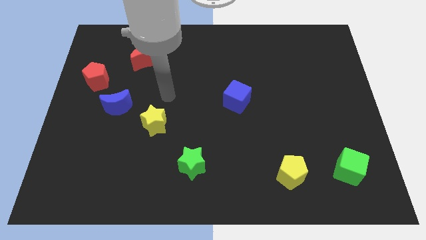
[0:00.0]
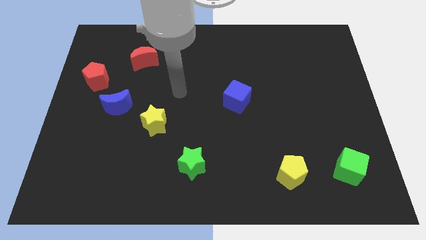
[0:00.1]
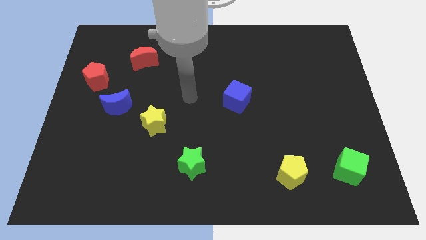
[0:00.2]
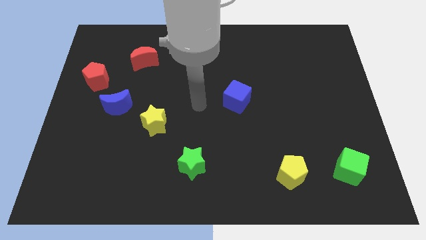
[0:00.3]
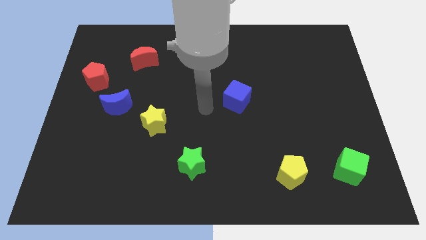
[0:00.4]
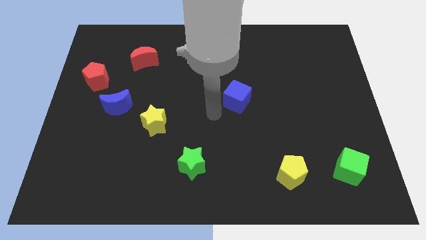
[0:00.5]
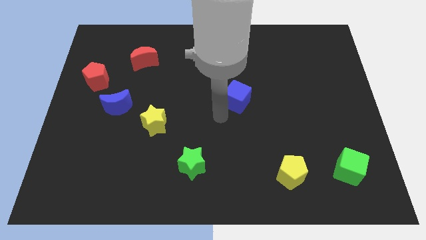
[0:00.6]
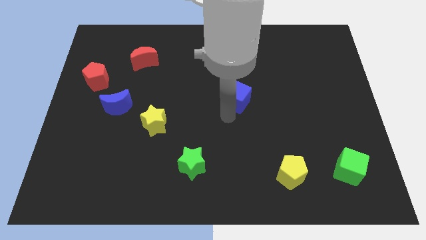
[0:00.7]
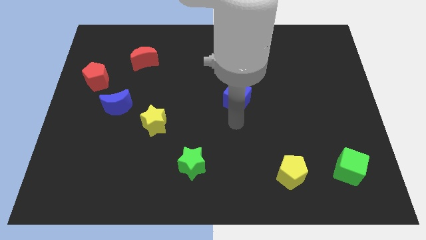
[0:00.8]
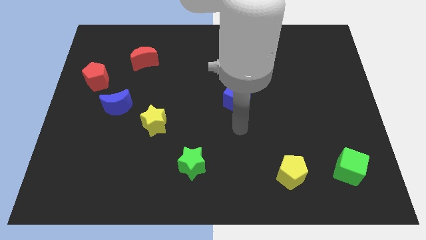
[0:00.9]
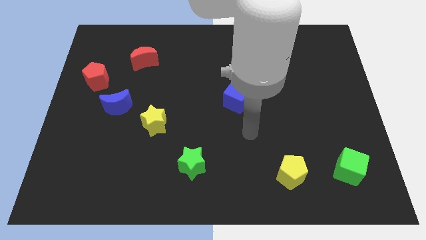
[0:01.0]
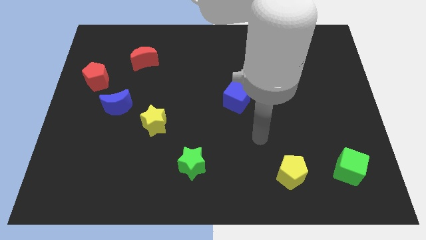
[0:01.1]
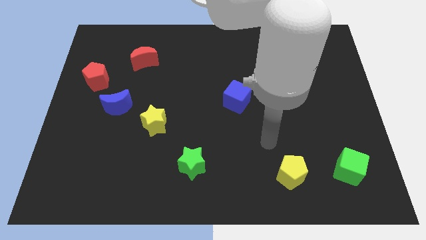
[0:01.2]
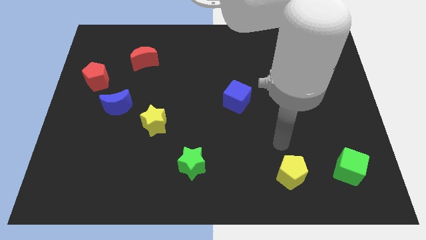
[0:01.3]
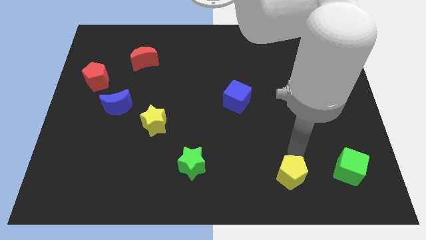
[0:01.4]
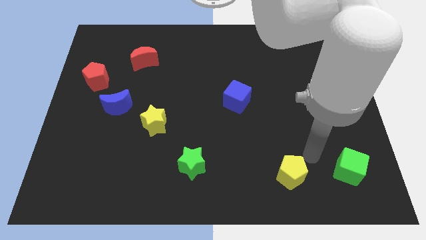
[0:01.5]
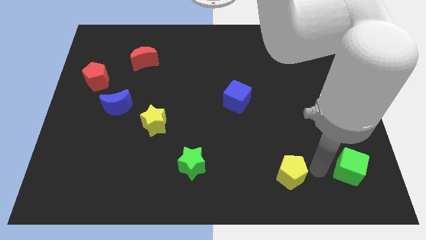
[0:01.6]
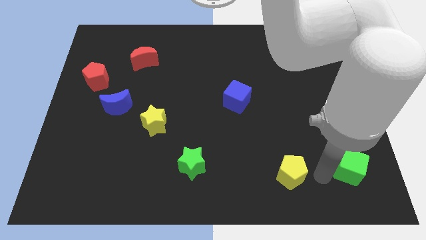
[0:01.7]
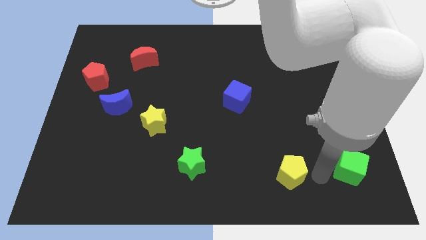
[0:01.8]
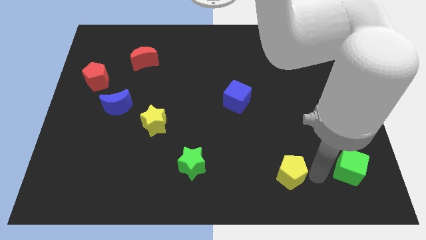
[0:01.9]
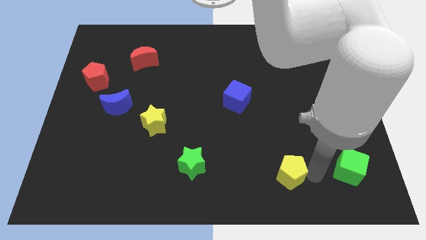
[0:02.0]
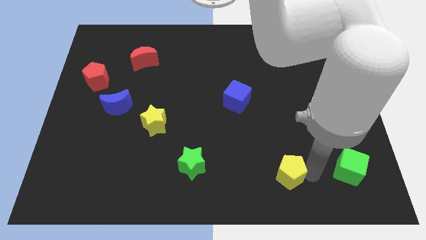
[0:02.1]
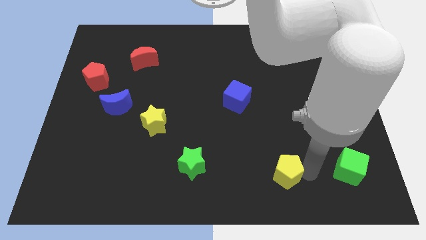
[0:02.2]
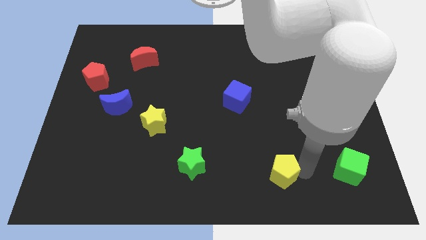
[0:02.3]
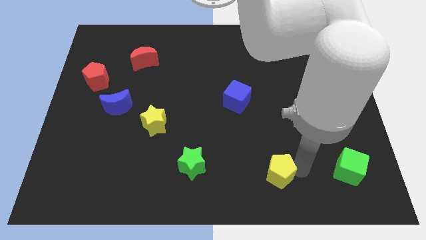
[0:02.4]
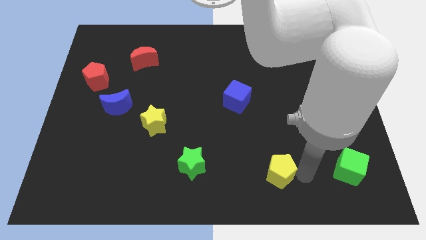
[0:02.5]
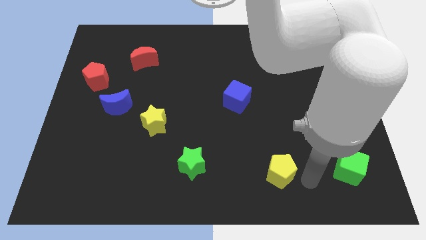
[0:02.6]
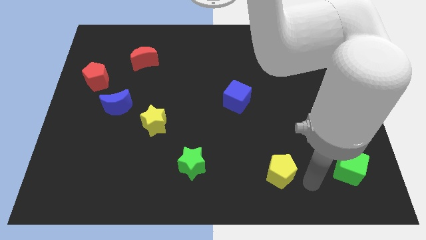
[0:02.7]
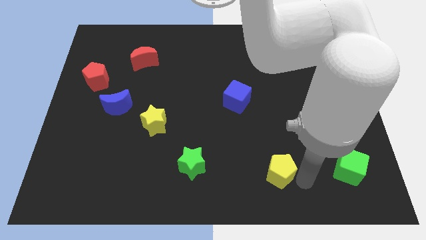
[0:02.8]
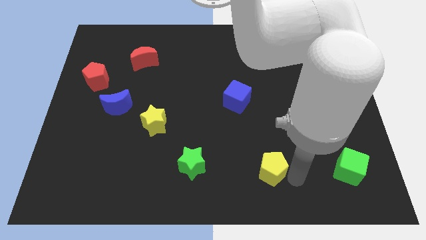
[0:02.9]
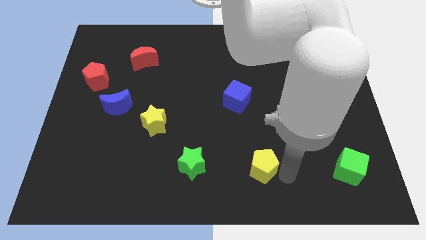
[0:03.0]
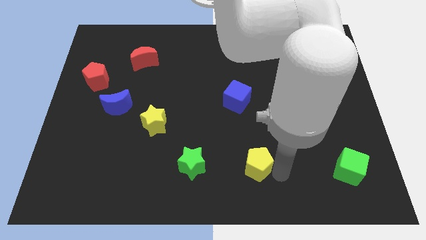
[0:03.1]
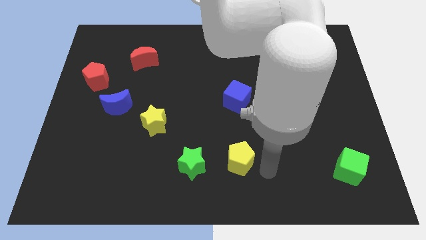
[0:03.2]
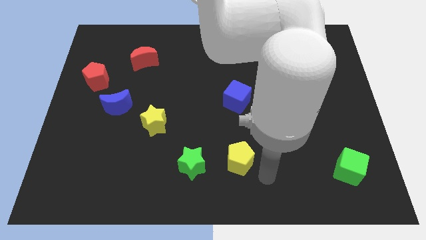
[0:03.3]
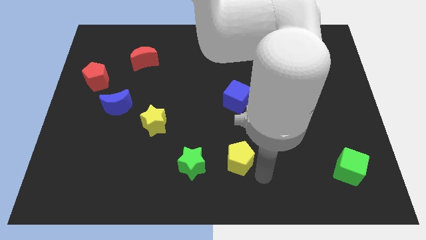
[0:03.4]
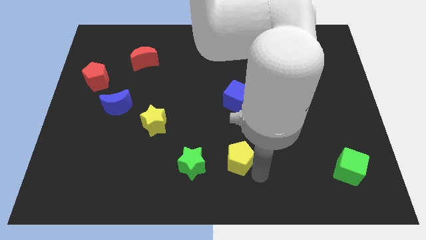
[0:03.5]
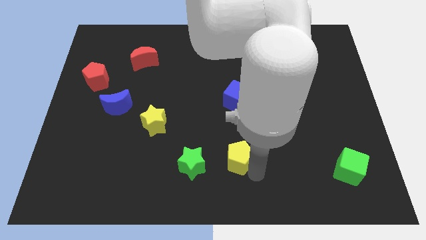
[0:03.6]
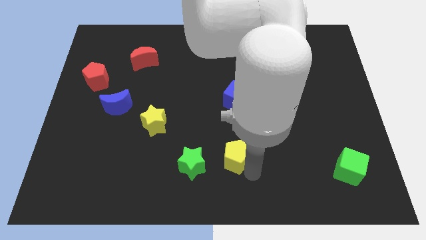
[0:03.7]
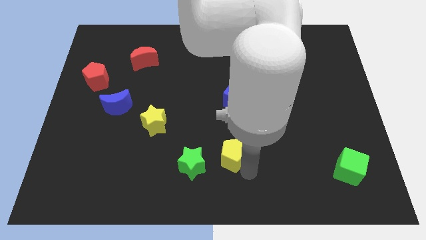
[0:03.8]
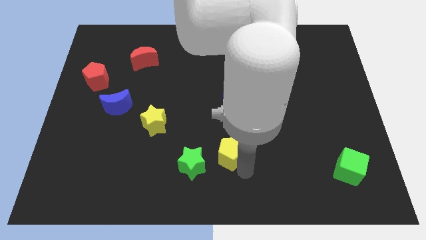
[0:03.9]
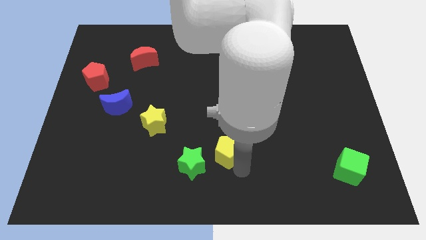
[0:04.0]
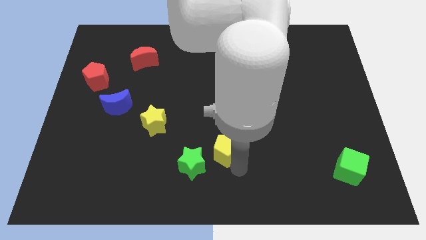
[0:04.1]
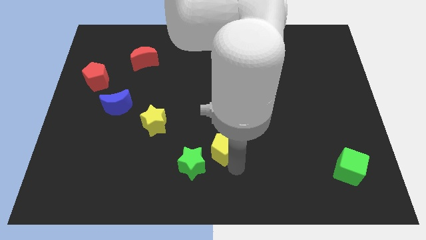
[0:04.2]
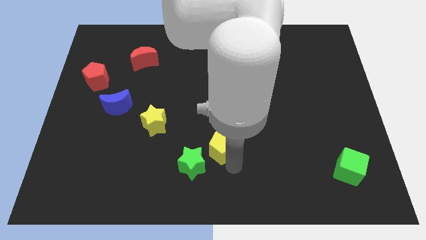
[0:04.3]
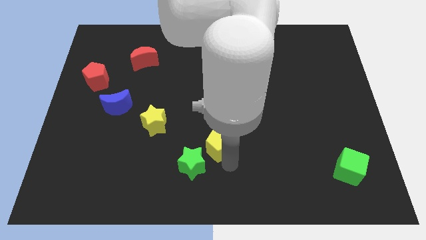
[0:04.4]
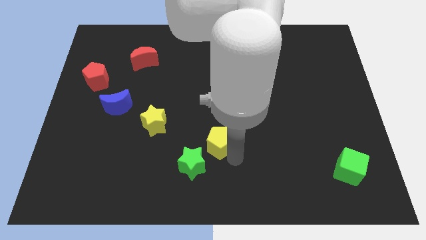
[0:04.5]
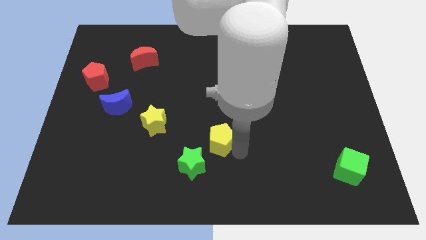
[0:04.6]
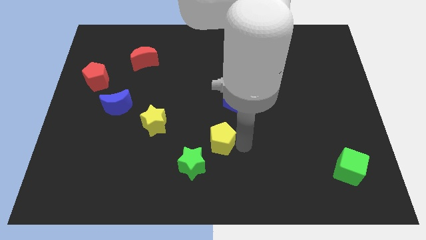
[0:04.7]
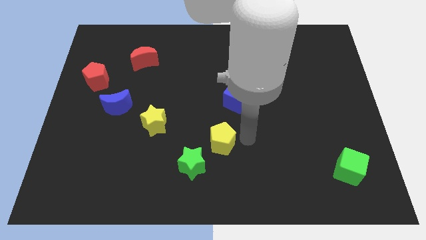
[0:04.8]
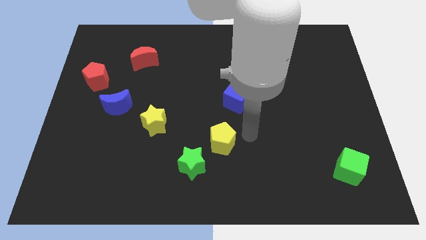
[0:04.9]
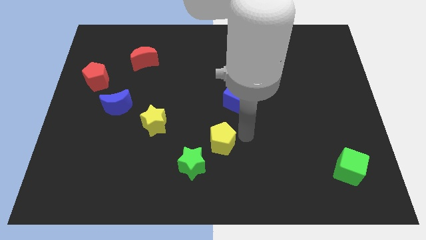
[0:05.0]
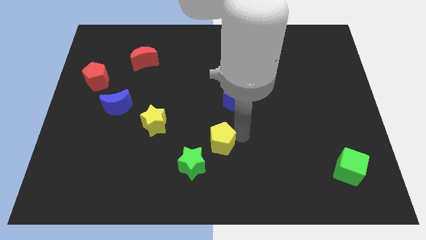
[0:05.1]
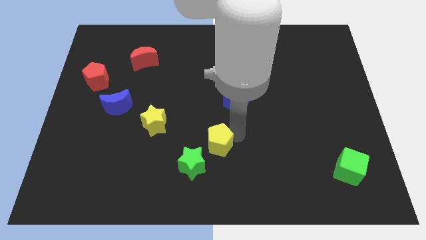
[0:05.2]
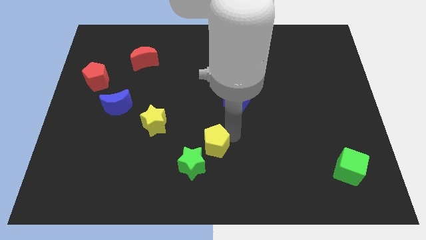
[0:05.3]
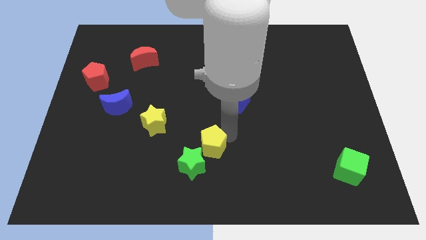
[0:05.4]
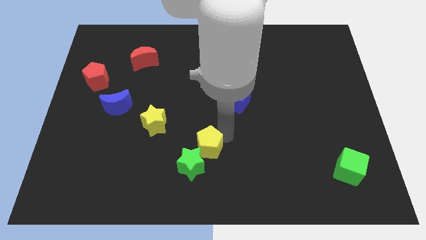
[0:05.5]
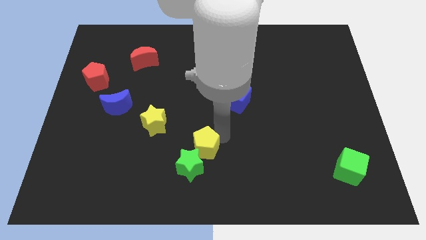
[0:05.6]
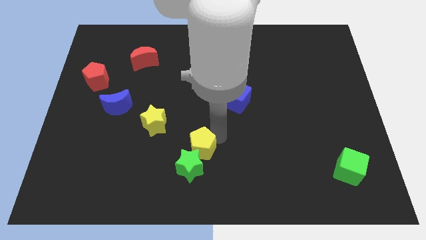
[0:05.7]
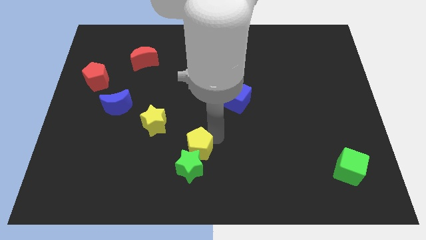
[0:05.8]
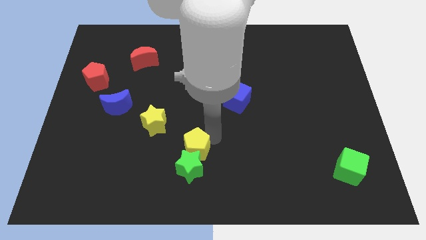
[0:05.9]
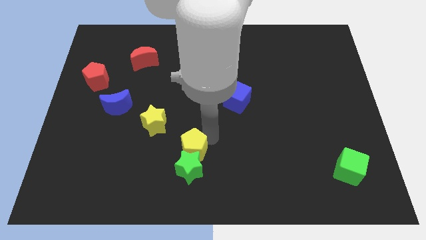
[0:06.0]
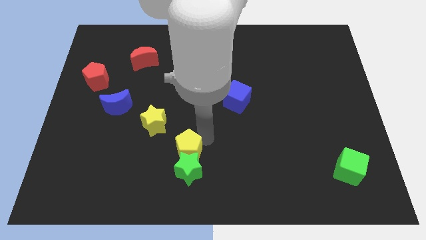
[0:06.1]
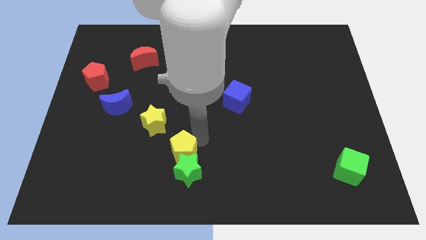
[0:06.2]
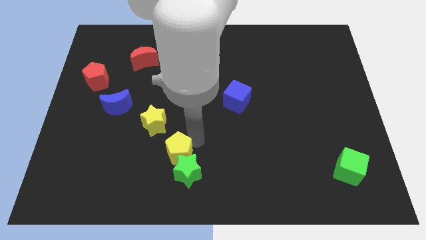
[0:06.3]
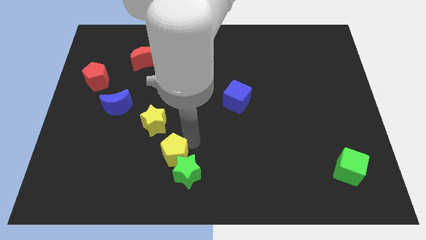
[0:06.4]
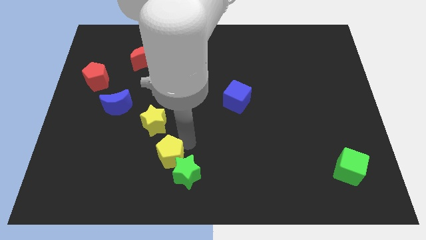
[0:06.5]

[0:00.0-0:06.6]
slide the yellow pentagon to the left side of the green star

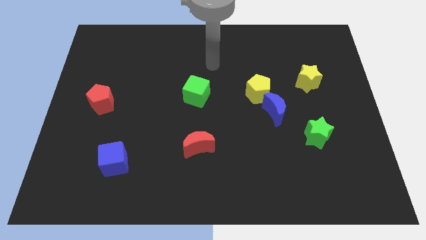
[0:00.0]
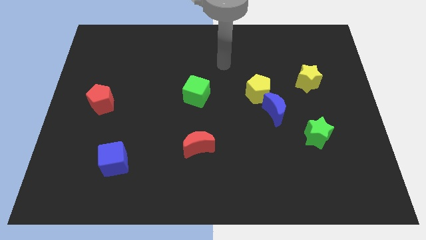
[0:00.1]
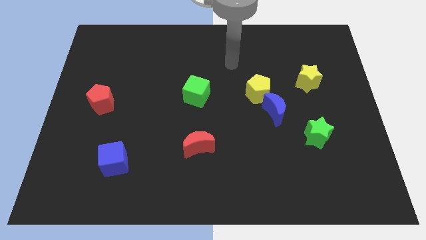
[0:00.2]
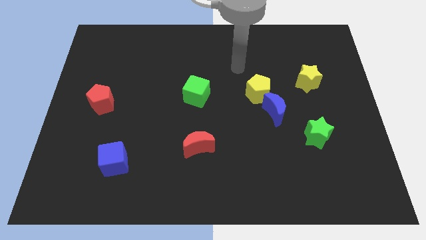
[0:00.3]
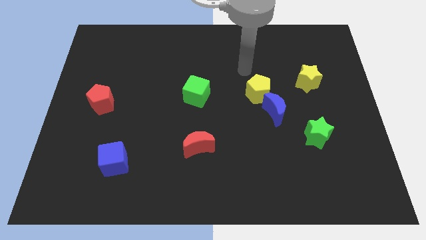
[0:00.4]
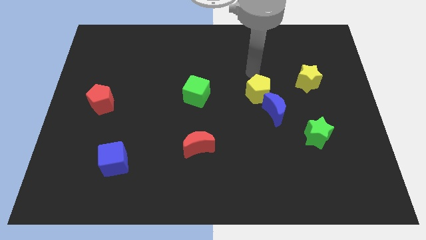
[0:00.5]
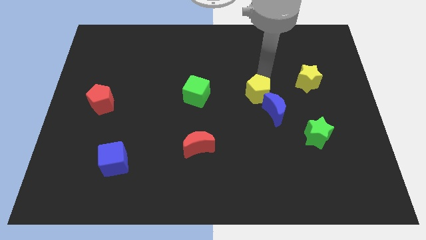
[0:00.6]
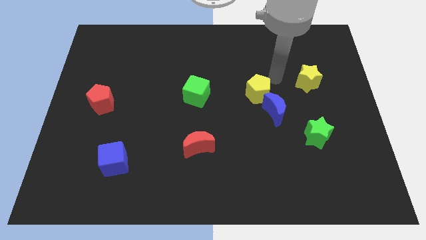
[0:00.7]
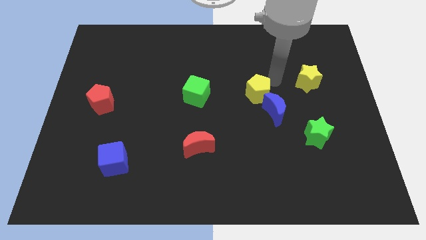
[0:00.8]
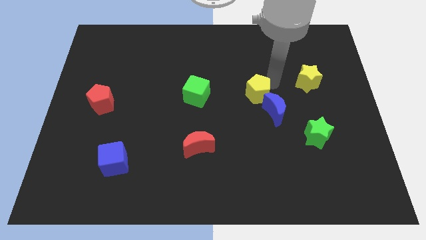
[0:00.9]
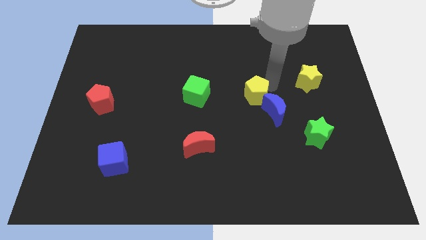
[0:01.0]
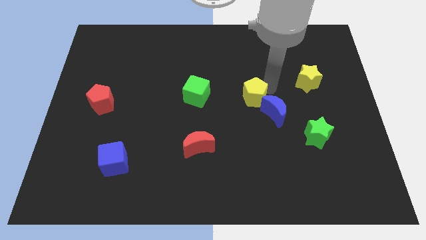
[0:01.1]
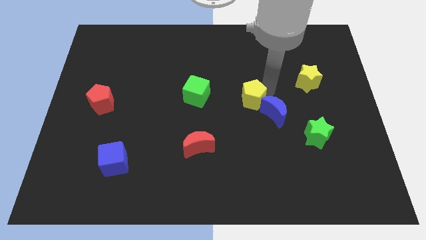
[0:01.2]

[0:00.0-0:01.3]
push the yellow pentagon to the left side of the blue moon

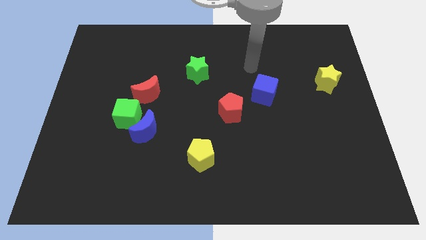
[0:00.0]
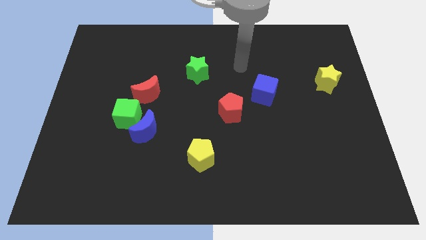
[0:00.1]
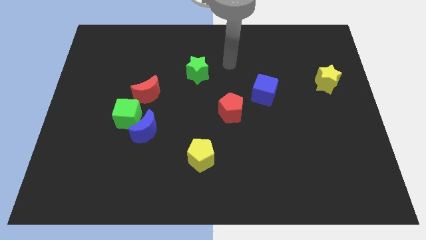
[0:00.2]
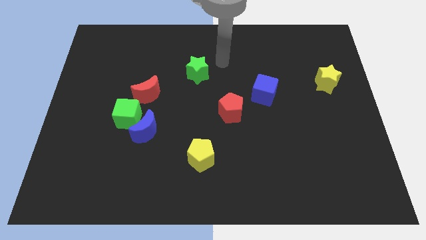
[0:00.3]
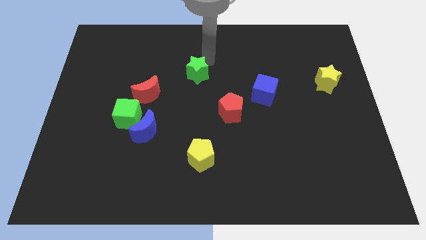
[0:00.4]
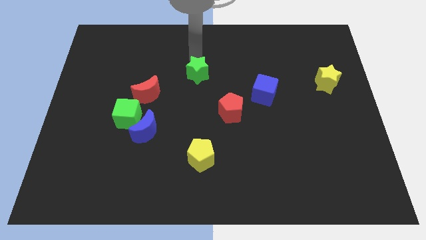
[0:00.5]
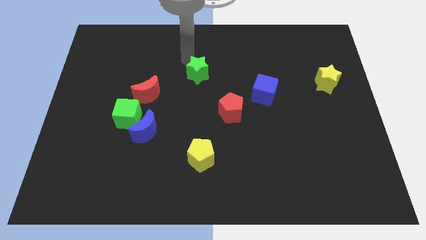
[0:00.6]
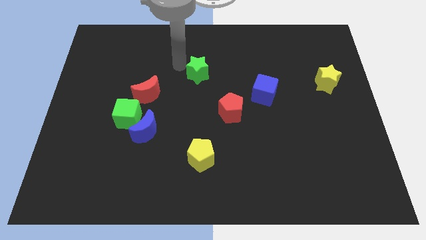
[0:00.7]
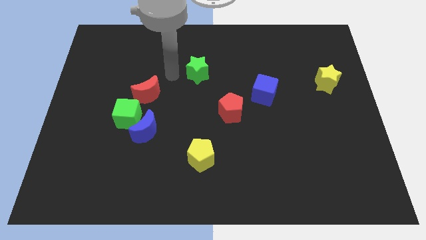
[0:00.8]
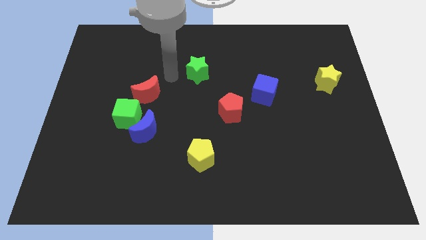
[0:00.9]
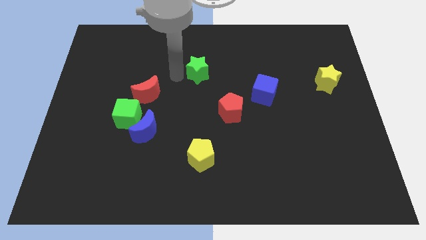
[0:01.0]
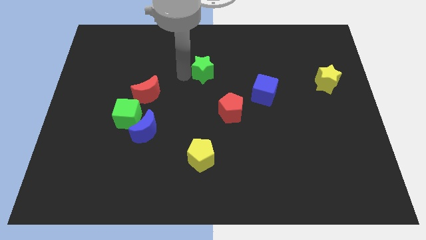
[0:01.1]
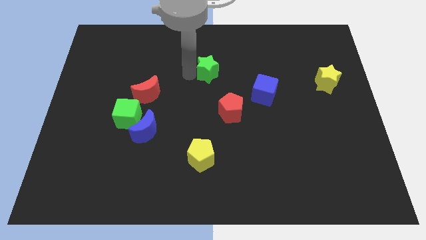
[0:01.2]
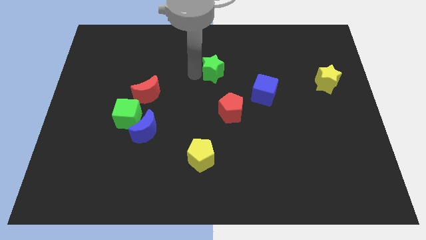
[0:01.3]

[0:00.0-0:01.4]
push the green star to the top of the red pentagon
